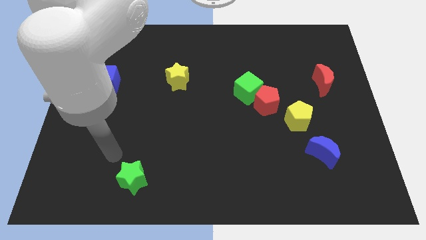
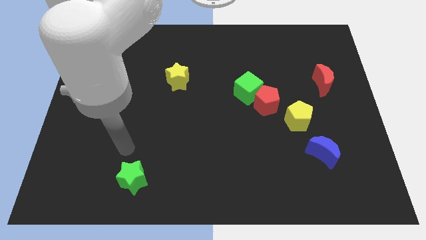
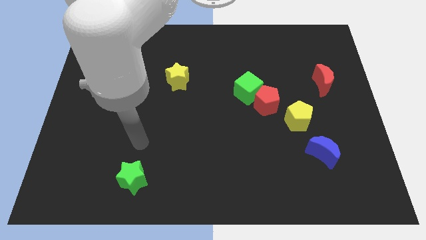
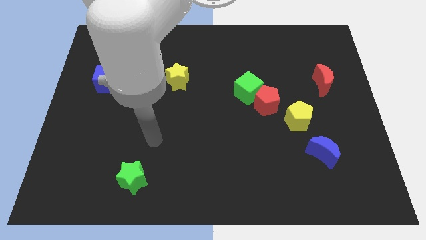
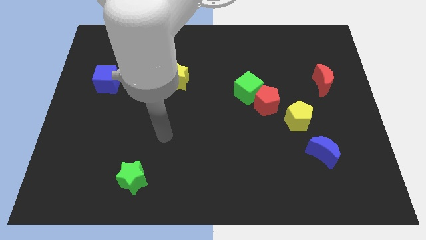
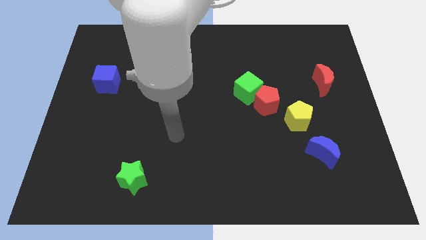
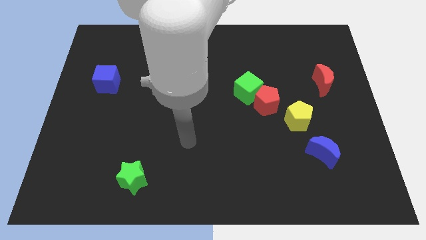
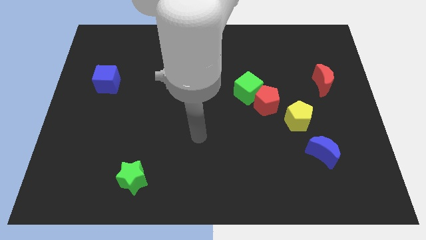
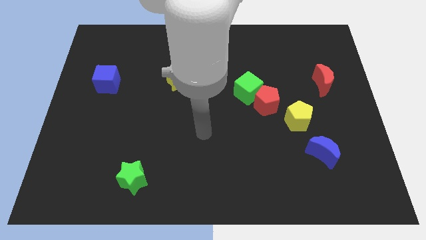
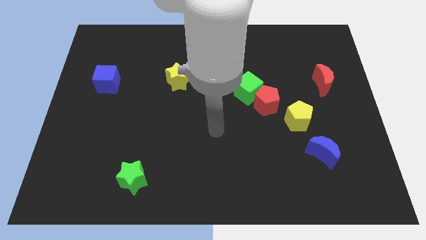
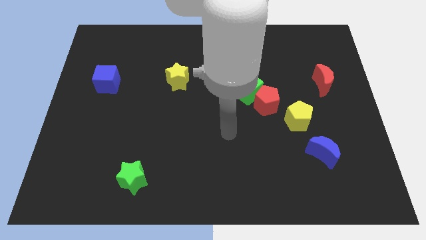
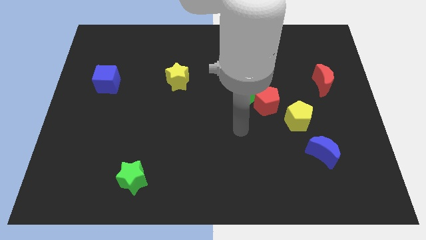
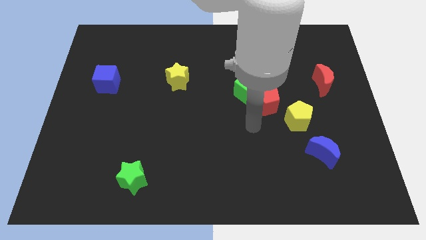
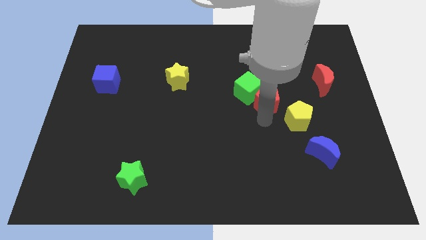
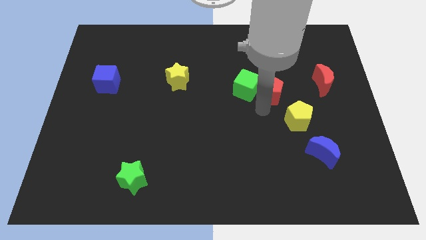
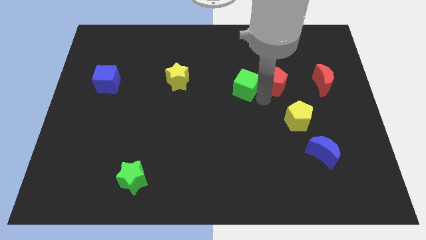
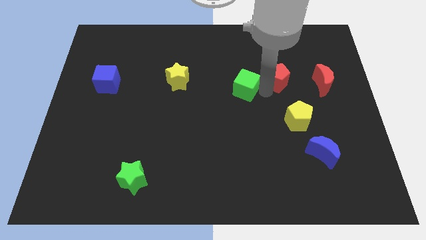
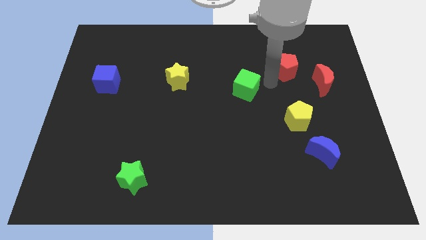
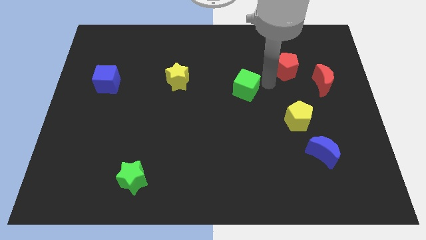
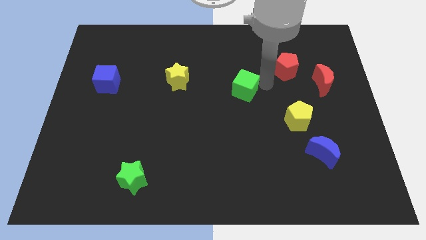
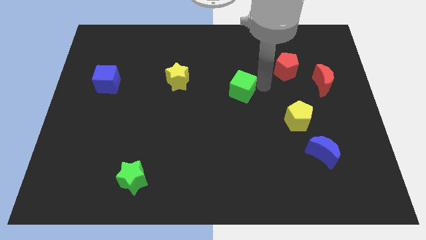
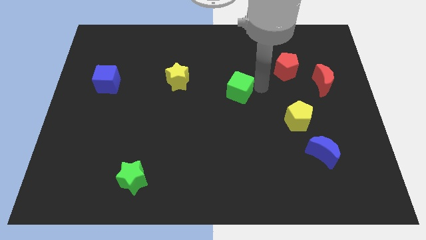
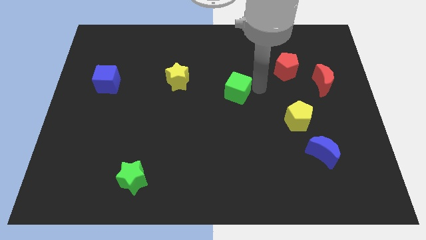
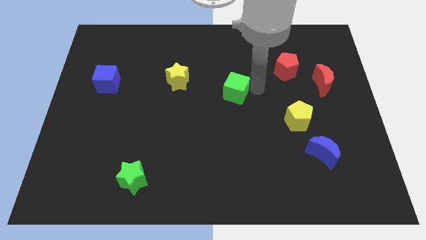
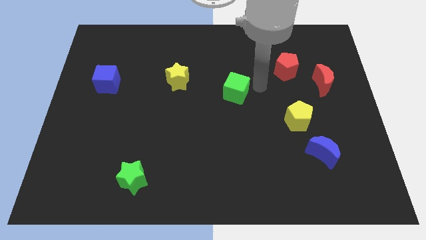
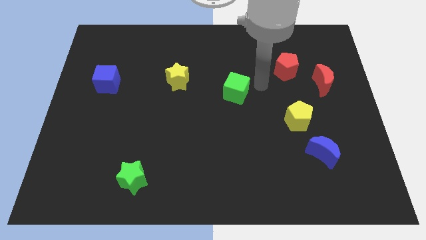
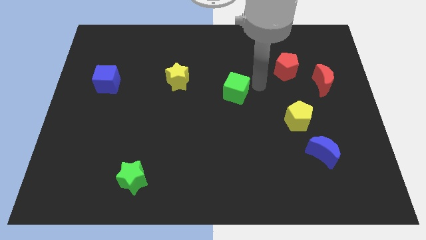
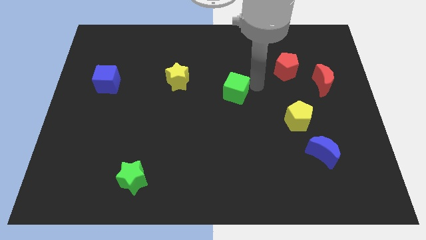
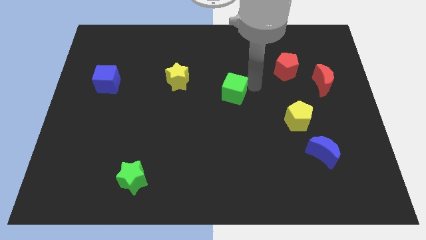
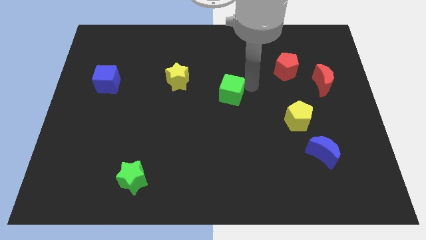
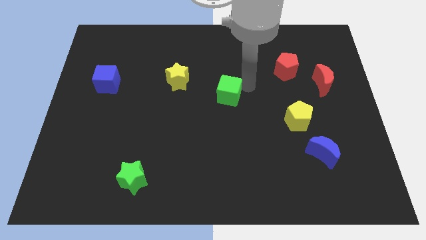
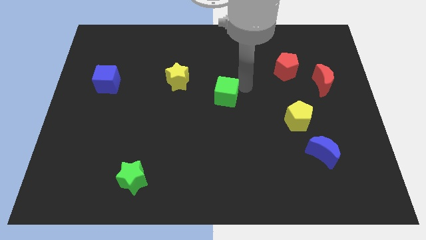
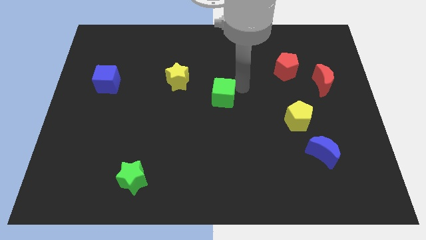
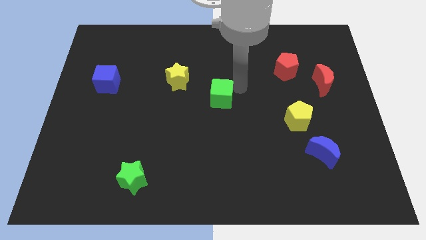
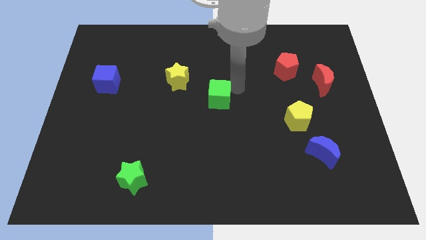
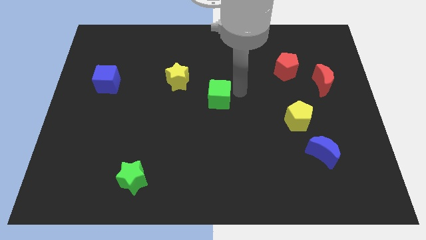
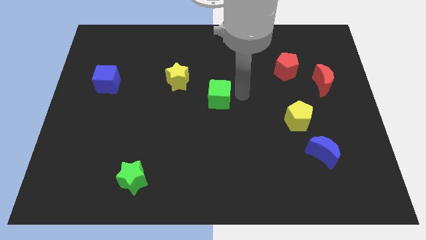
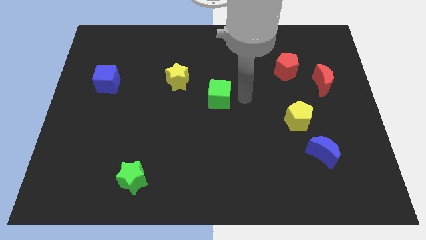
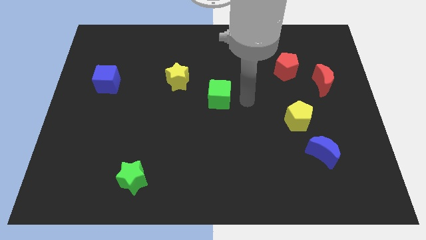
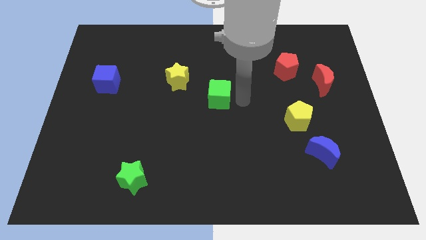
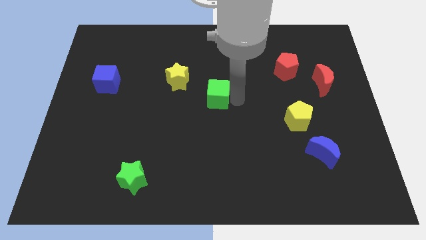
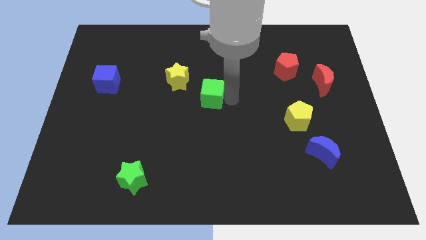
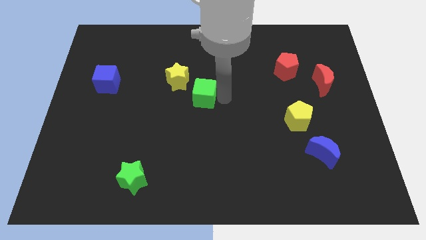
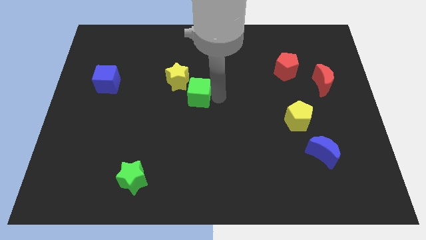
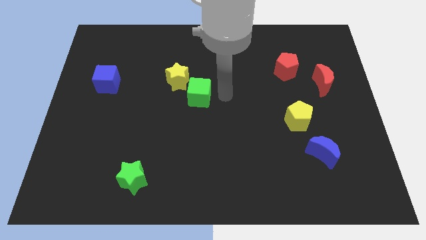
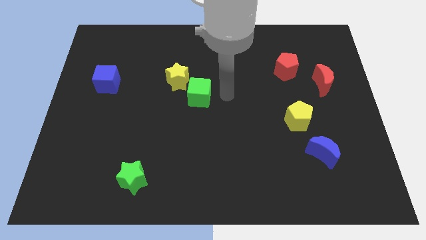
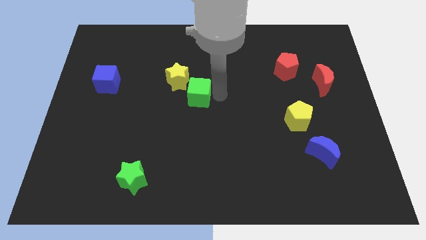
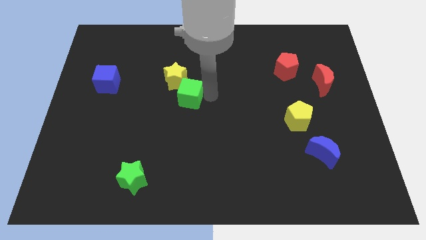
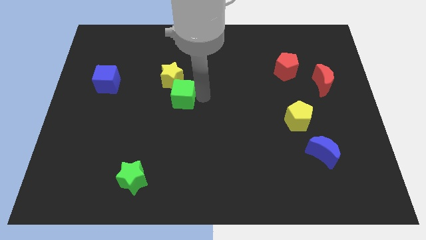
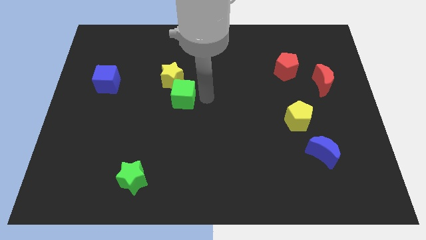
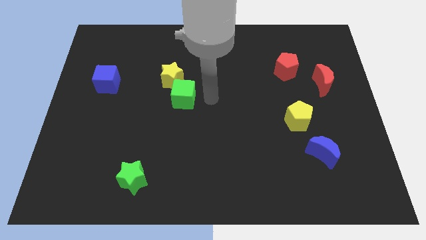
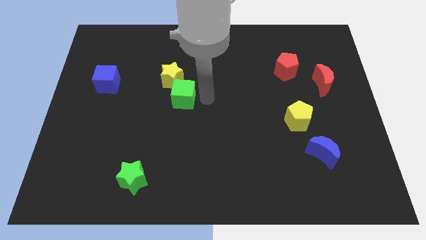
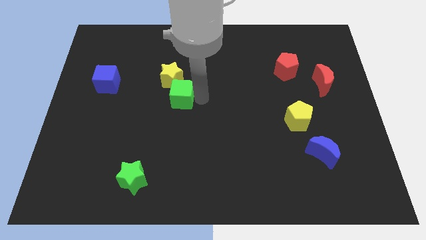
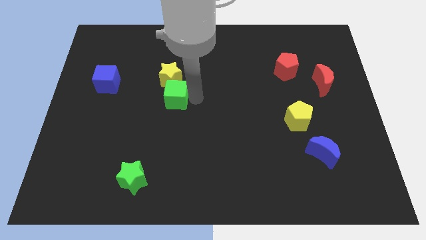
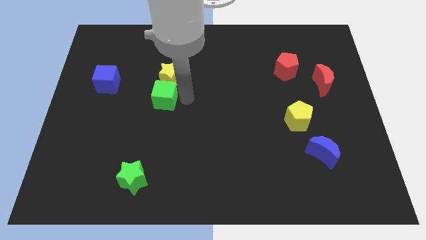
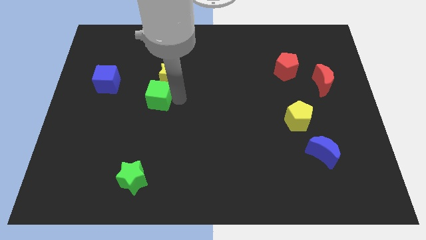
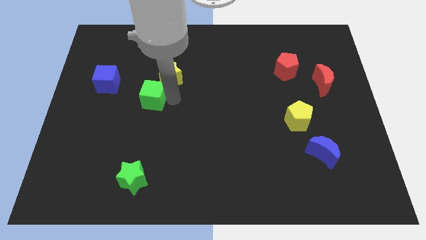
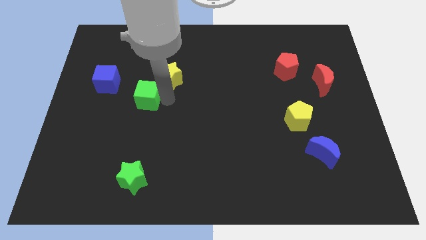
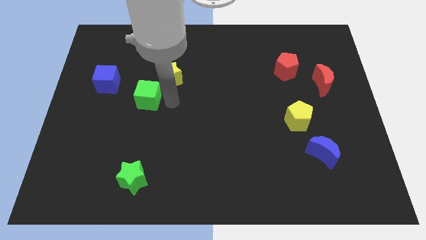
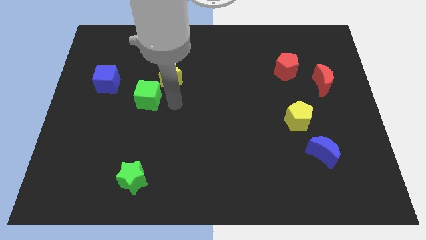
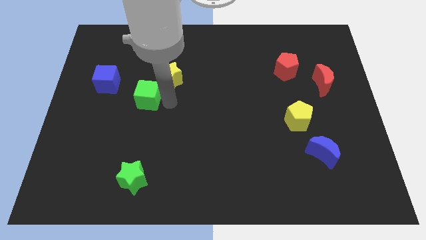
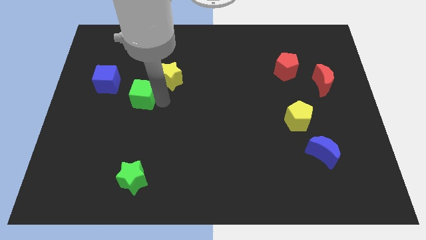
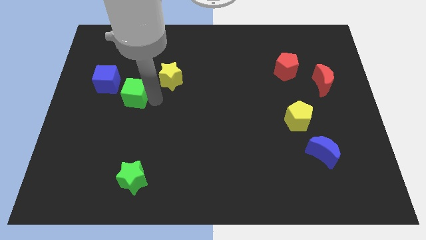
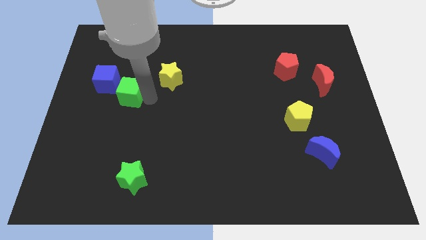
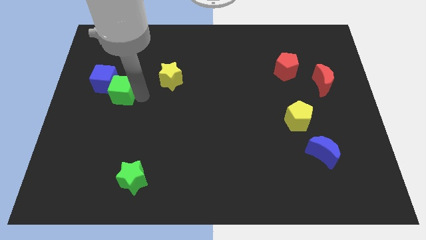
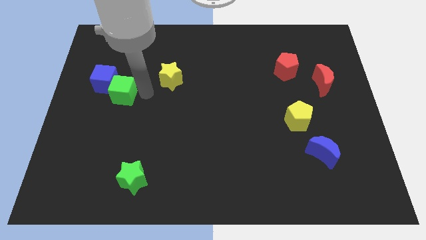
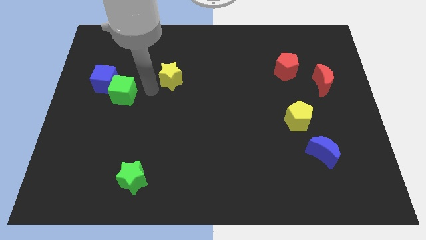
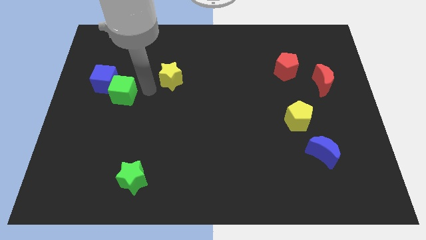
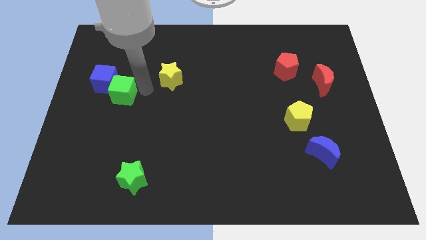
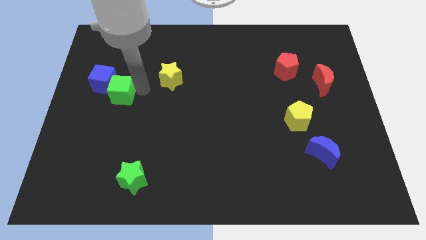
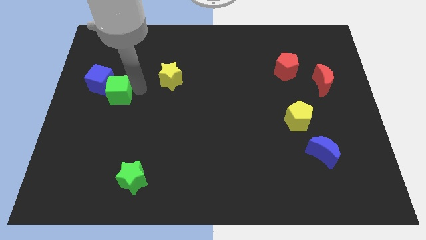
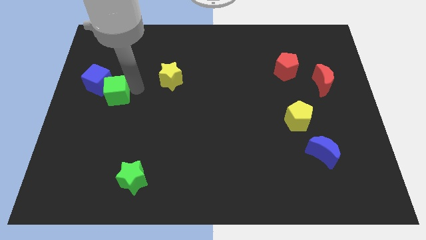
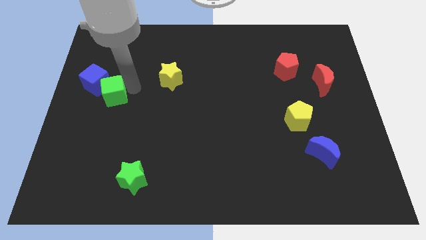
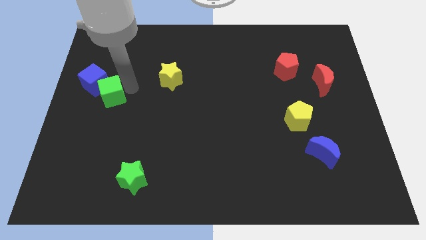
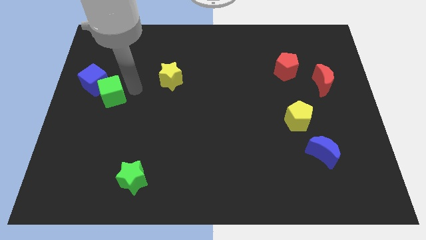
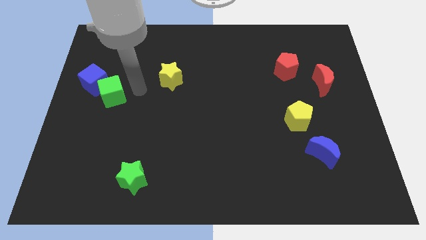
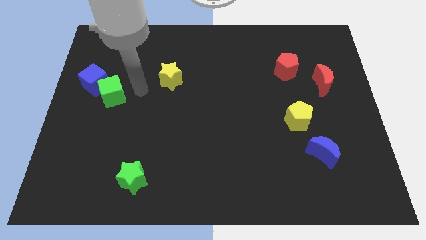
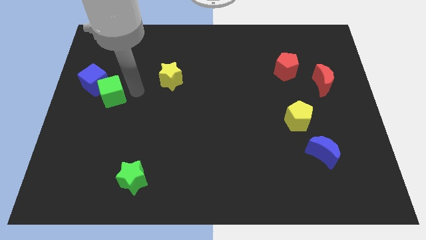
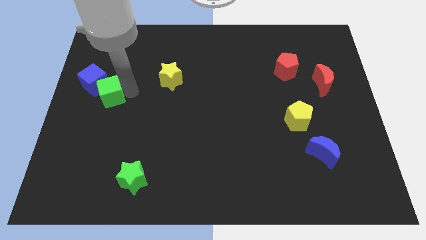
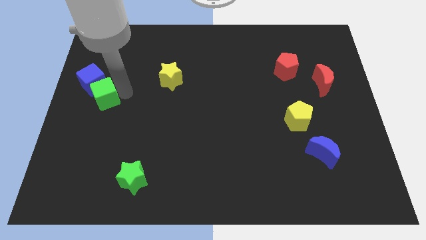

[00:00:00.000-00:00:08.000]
move the green cube to the left side
